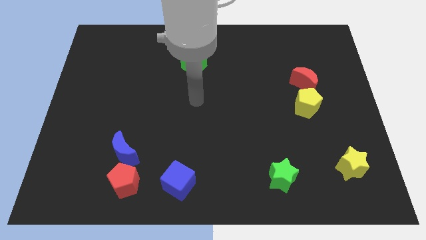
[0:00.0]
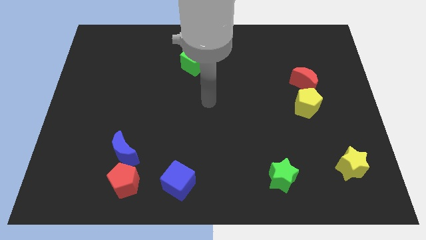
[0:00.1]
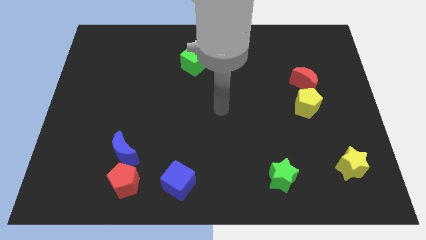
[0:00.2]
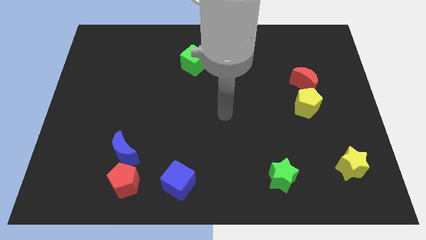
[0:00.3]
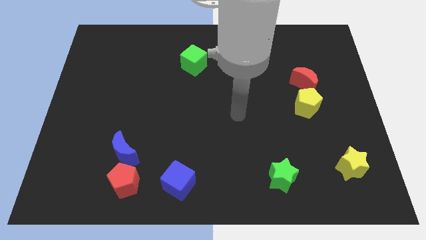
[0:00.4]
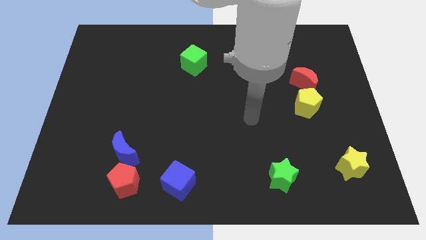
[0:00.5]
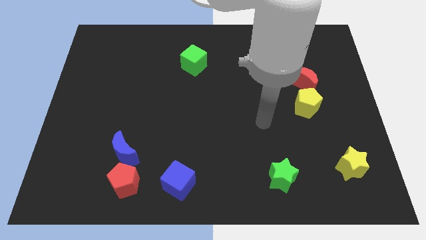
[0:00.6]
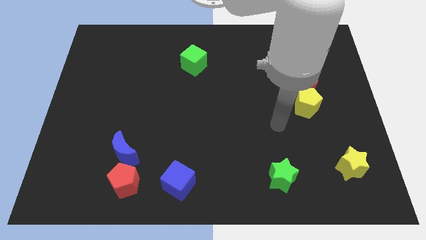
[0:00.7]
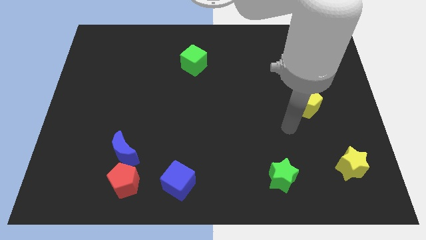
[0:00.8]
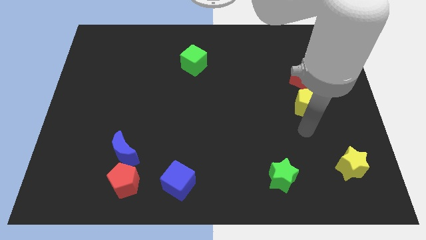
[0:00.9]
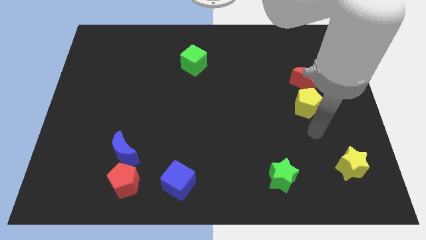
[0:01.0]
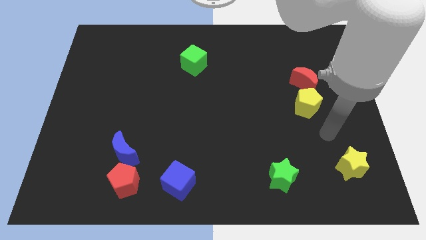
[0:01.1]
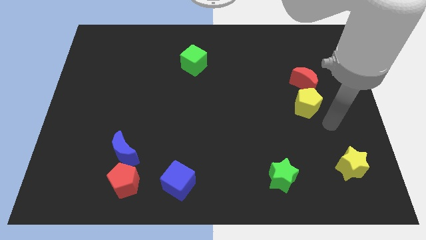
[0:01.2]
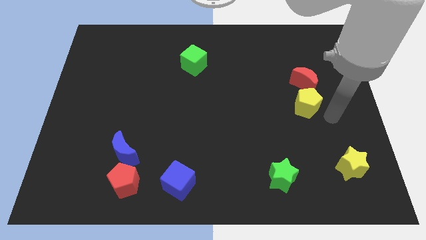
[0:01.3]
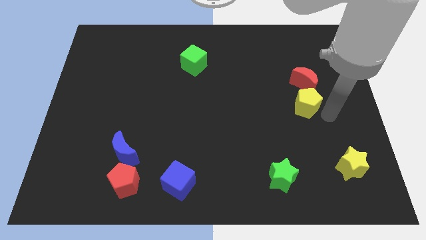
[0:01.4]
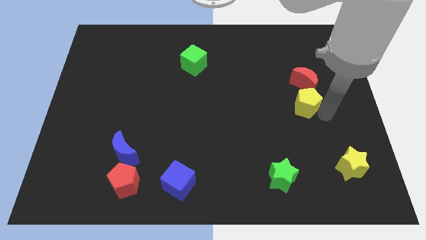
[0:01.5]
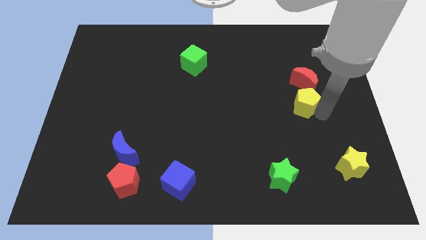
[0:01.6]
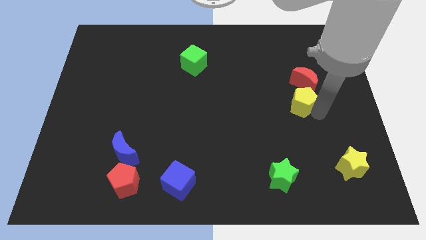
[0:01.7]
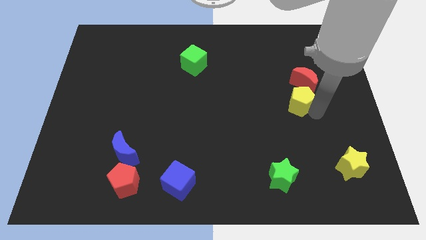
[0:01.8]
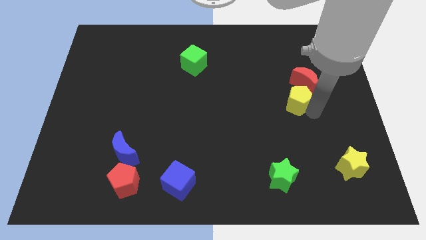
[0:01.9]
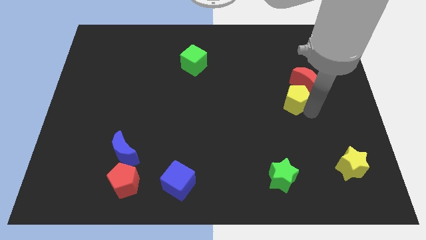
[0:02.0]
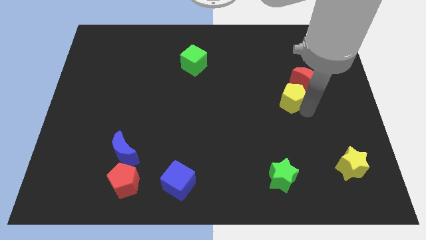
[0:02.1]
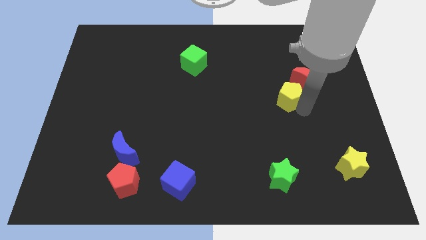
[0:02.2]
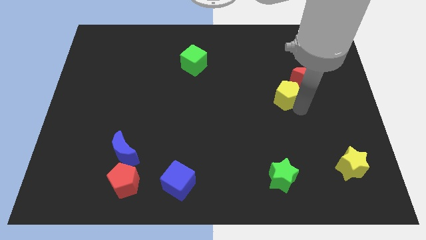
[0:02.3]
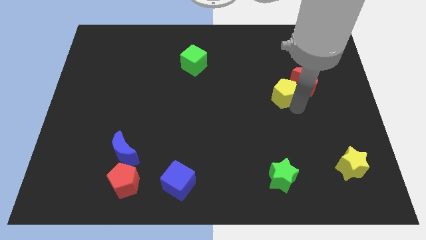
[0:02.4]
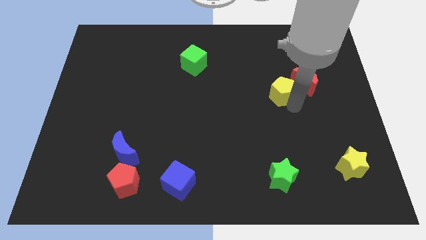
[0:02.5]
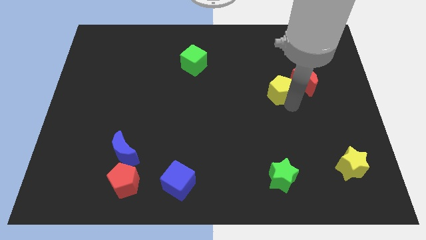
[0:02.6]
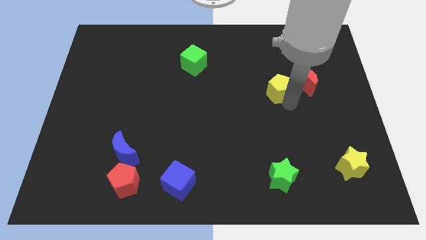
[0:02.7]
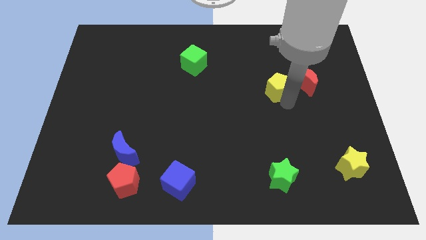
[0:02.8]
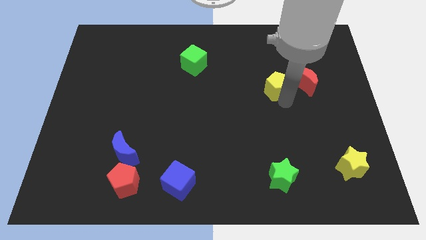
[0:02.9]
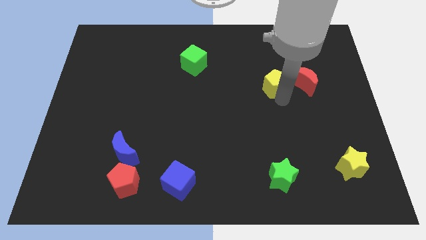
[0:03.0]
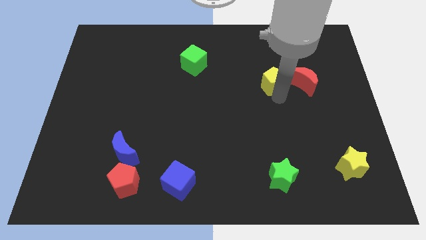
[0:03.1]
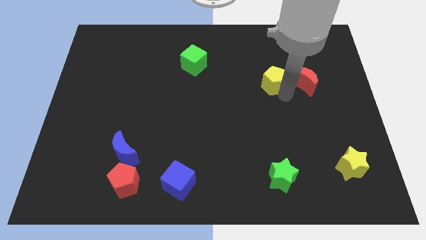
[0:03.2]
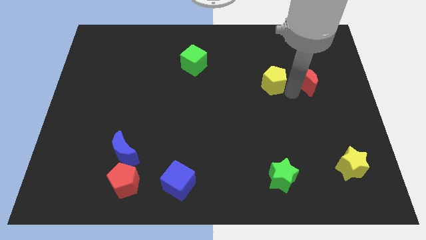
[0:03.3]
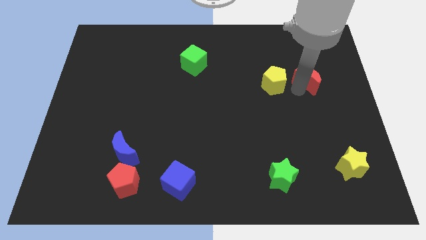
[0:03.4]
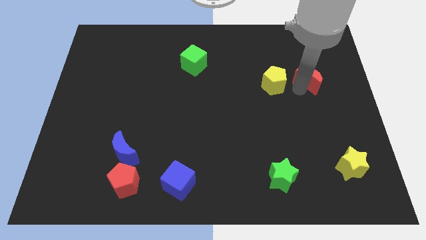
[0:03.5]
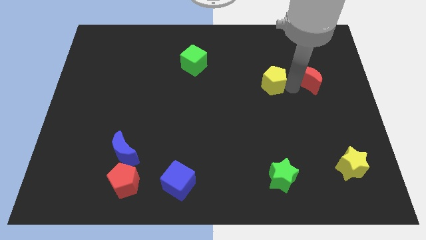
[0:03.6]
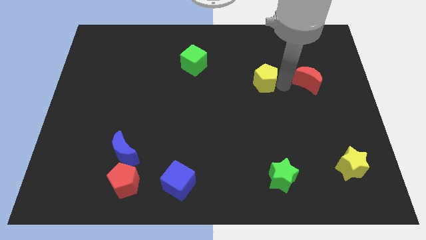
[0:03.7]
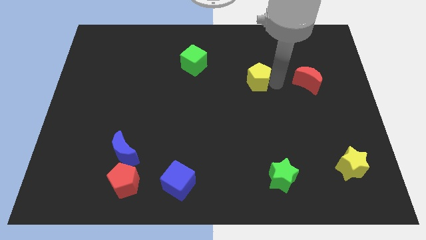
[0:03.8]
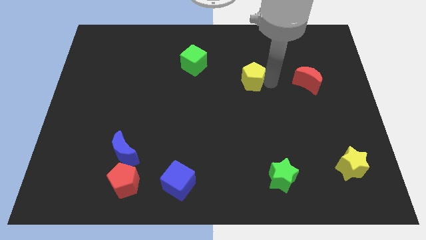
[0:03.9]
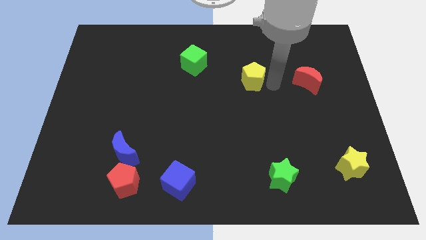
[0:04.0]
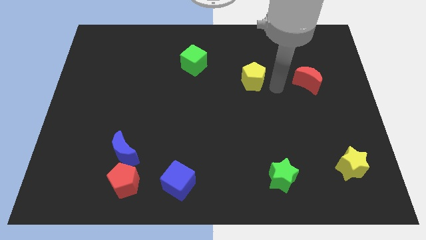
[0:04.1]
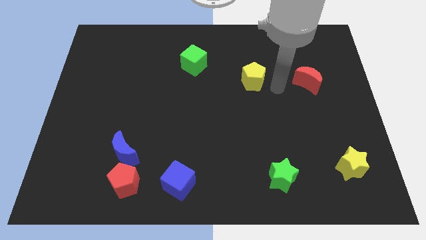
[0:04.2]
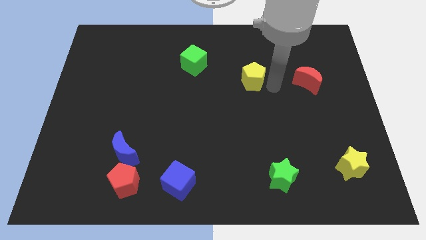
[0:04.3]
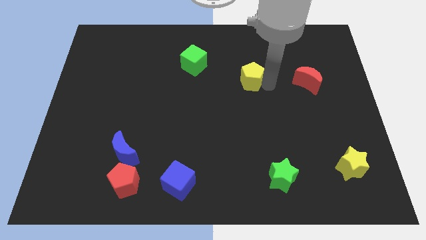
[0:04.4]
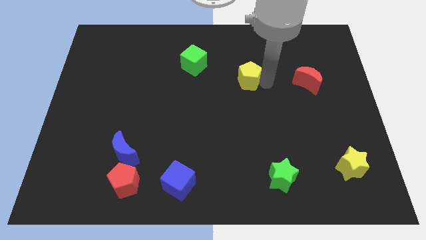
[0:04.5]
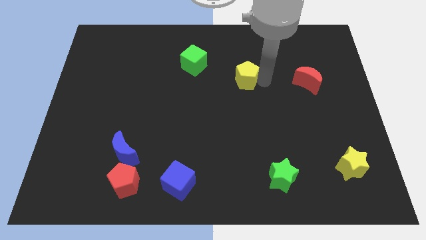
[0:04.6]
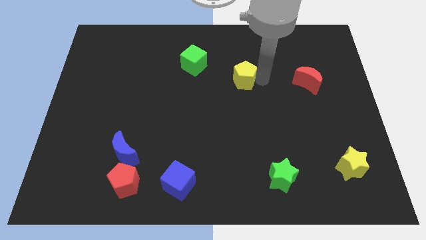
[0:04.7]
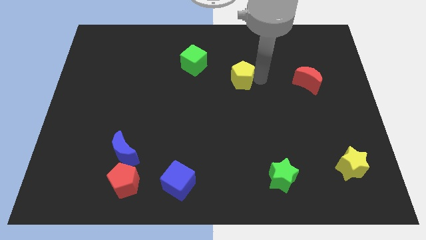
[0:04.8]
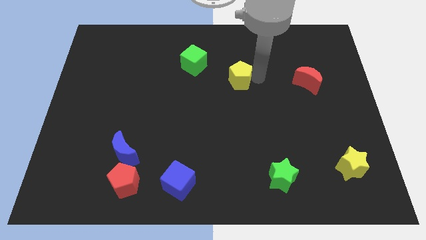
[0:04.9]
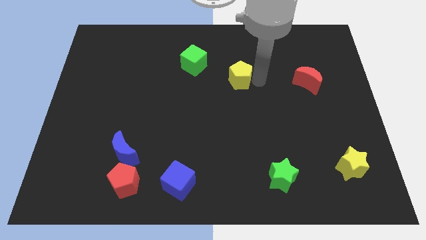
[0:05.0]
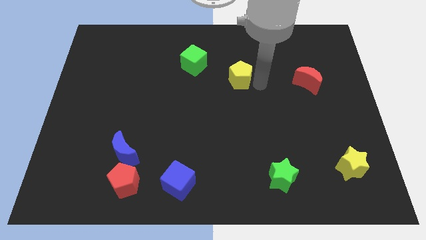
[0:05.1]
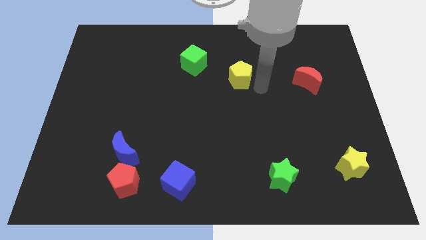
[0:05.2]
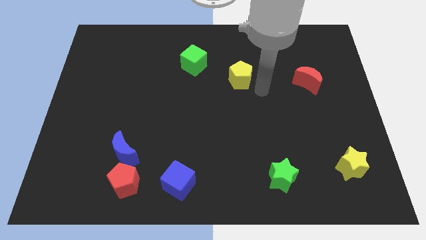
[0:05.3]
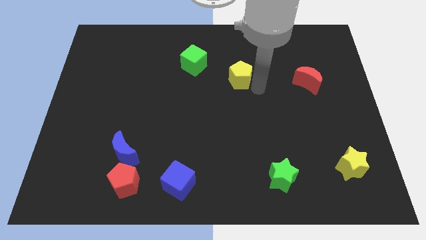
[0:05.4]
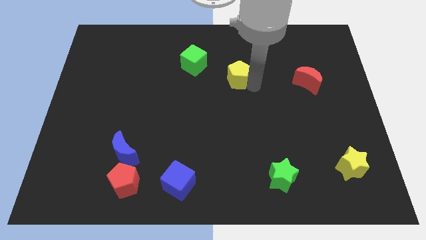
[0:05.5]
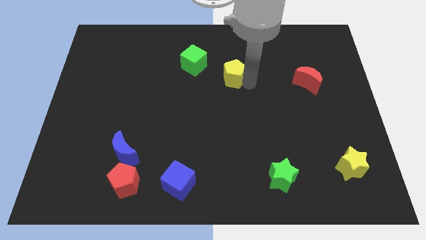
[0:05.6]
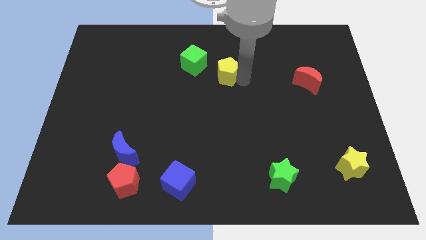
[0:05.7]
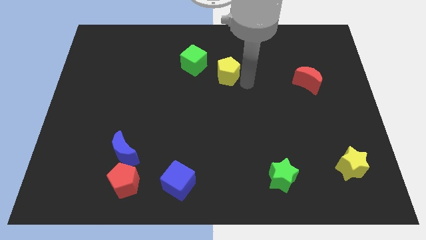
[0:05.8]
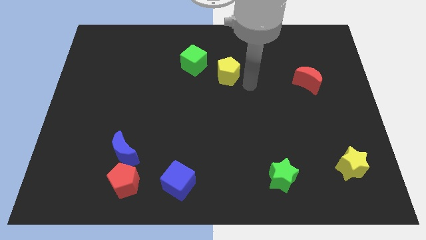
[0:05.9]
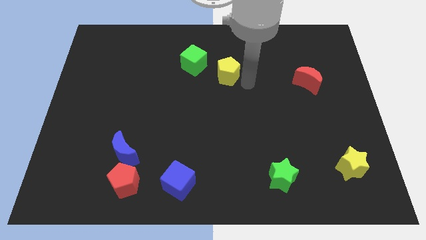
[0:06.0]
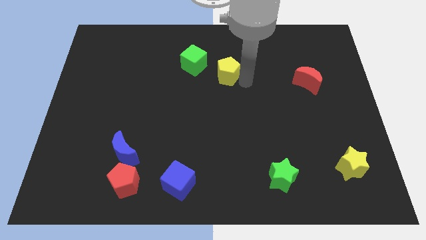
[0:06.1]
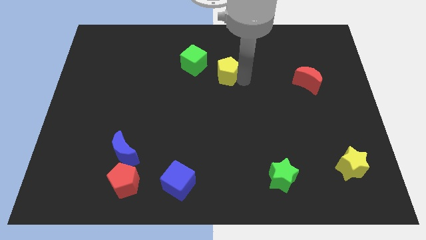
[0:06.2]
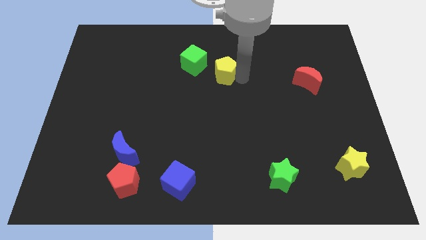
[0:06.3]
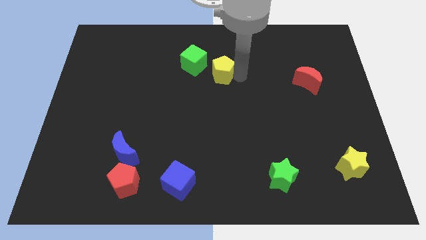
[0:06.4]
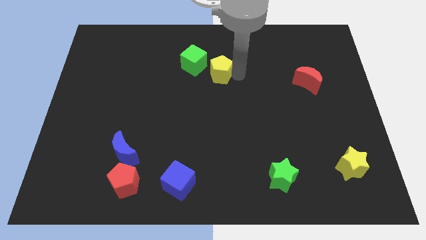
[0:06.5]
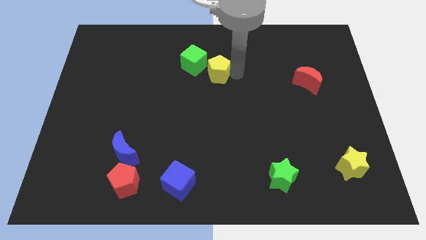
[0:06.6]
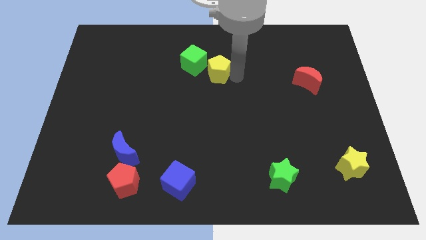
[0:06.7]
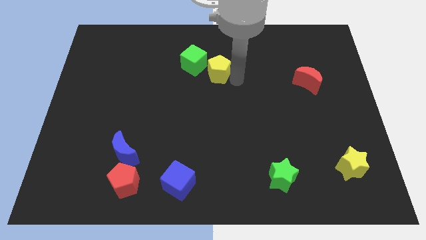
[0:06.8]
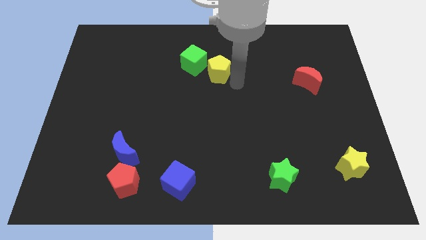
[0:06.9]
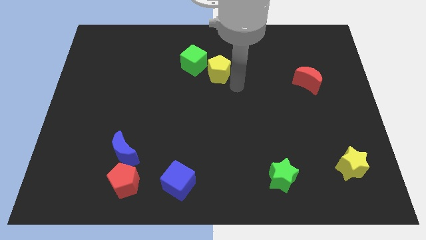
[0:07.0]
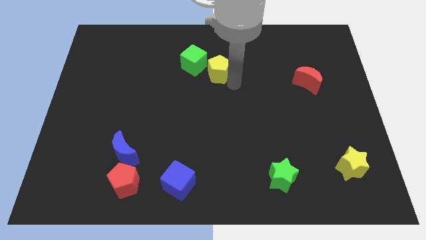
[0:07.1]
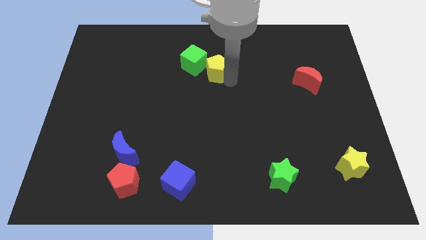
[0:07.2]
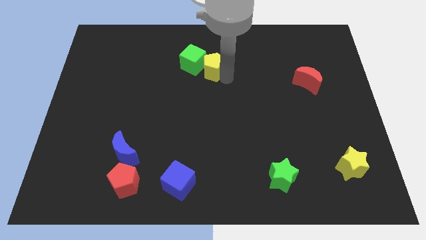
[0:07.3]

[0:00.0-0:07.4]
put the yellow pentagon next to the green cube

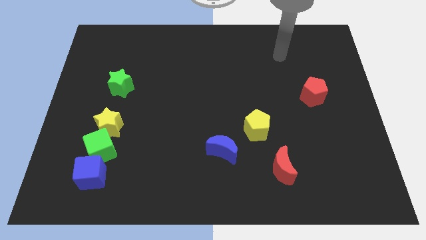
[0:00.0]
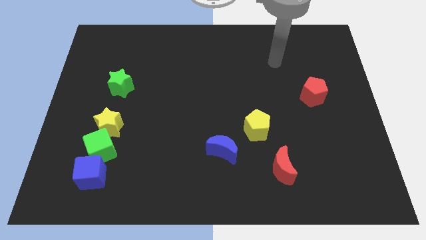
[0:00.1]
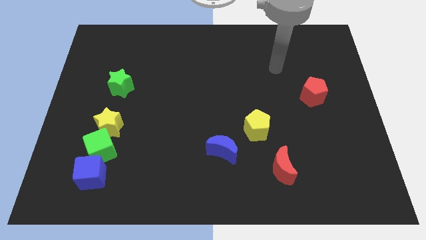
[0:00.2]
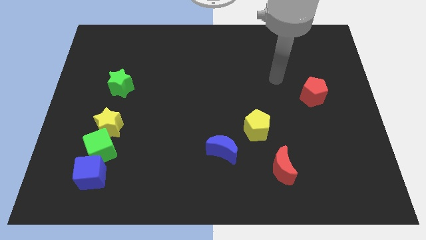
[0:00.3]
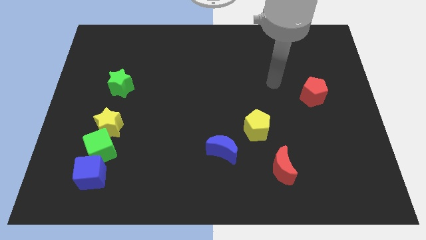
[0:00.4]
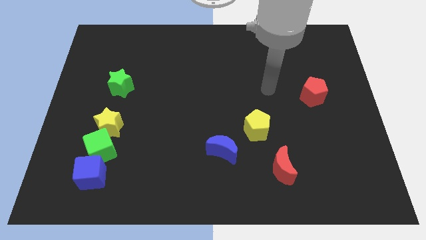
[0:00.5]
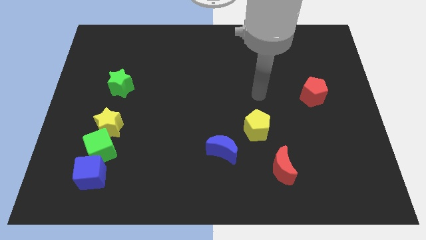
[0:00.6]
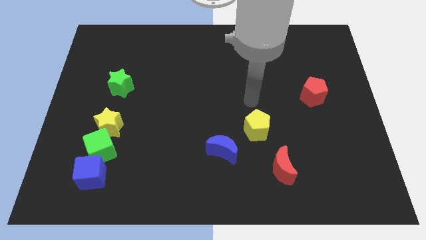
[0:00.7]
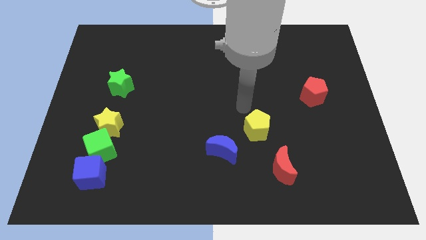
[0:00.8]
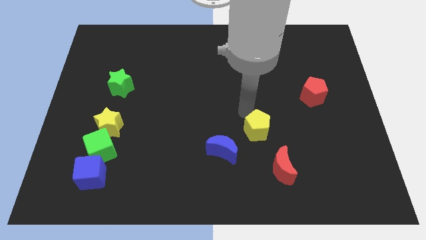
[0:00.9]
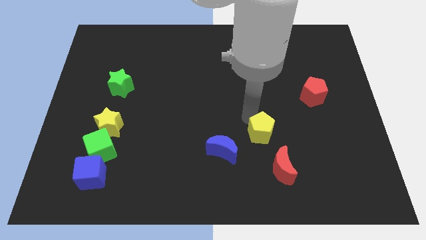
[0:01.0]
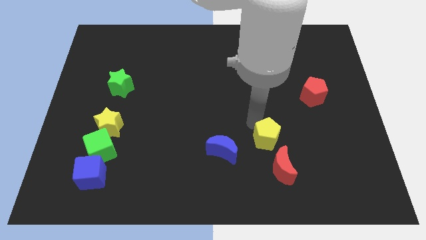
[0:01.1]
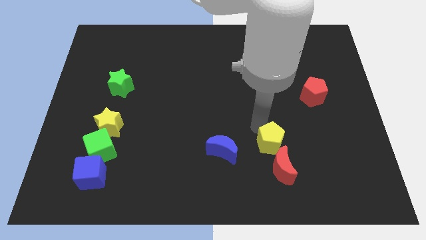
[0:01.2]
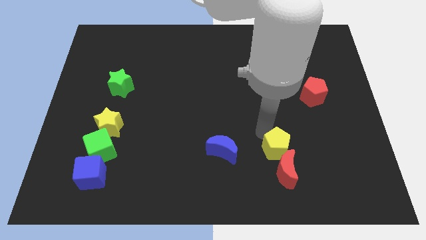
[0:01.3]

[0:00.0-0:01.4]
slide the yellow pentagon close to the red moon
